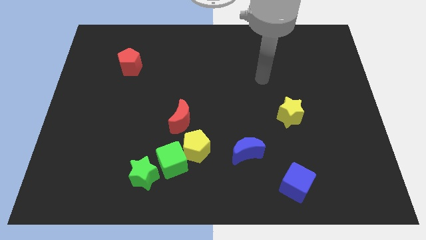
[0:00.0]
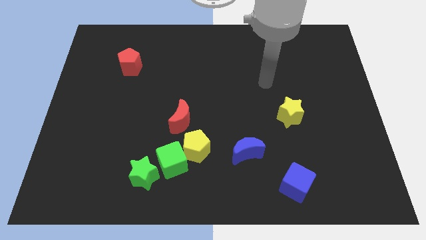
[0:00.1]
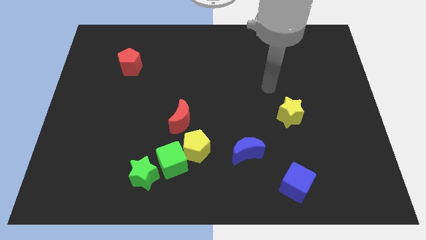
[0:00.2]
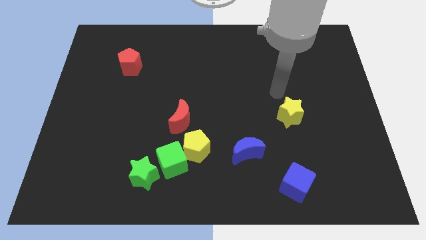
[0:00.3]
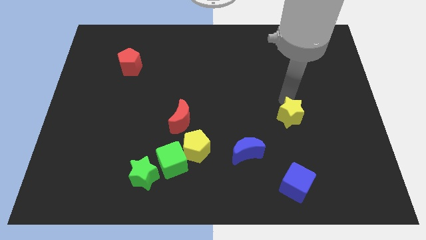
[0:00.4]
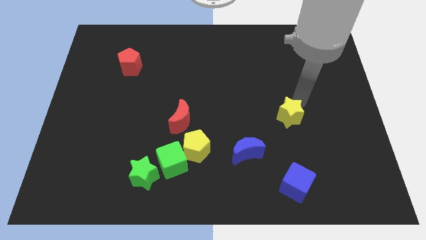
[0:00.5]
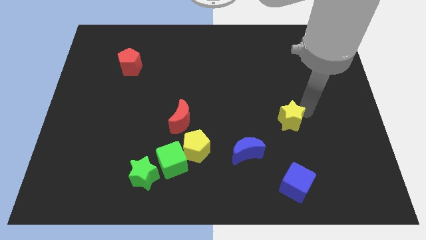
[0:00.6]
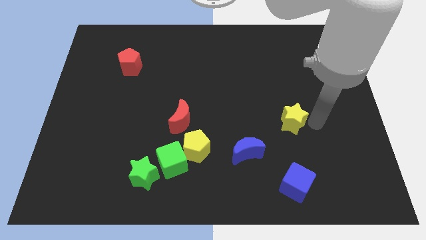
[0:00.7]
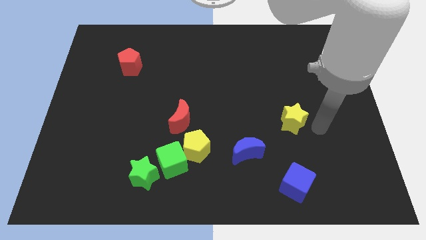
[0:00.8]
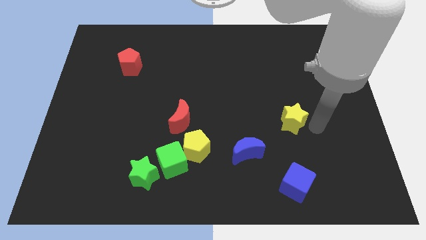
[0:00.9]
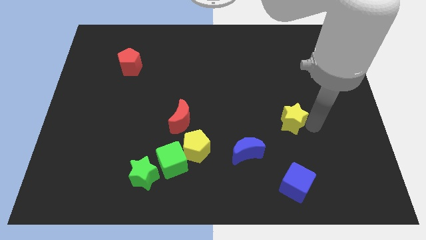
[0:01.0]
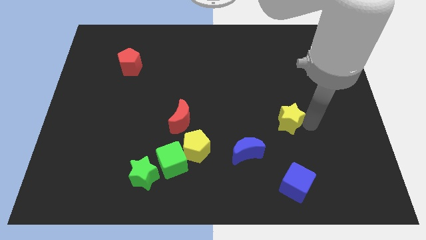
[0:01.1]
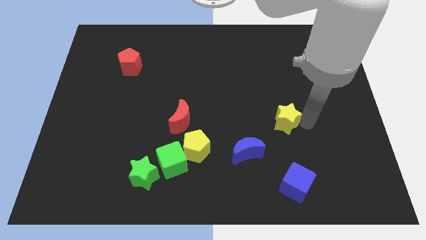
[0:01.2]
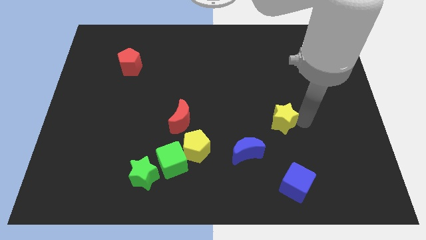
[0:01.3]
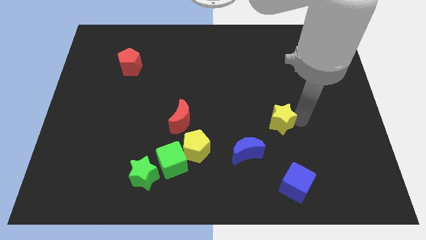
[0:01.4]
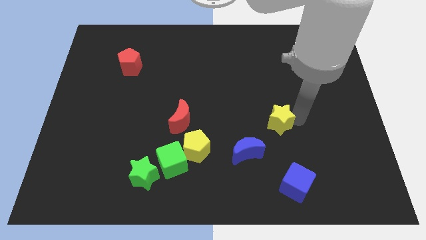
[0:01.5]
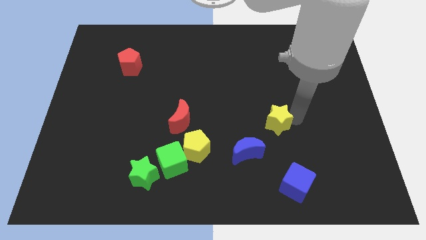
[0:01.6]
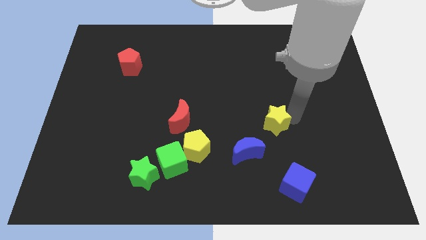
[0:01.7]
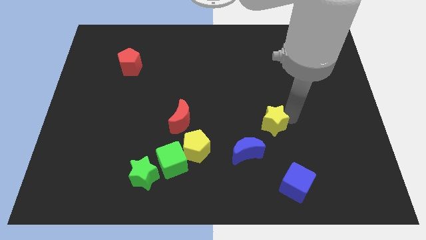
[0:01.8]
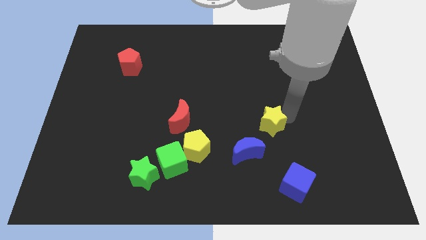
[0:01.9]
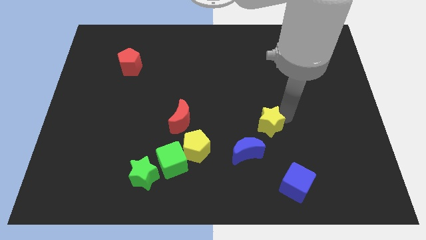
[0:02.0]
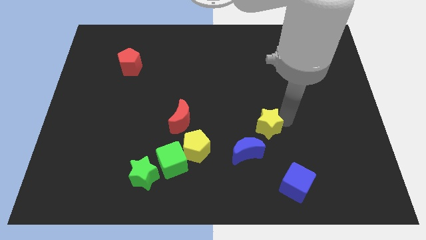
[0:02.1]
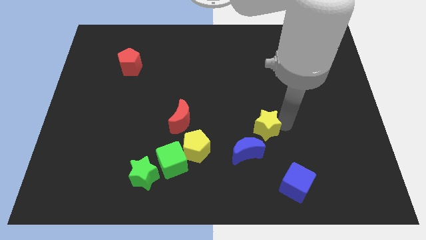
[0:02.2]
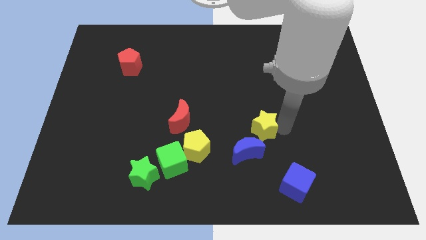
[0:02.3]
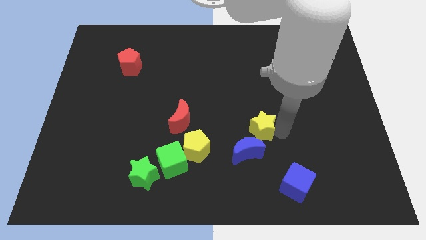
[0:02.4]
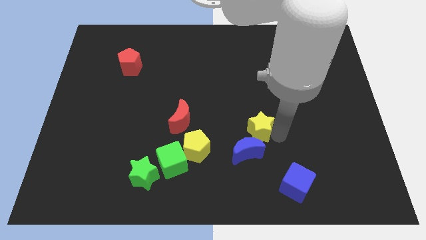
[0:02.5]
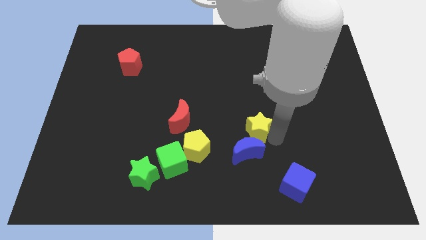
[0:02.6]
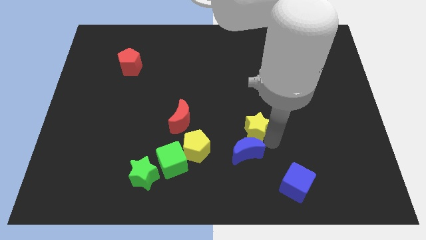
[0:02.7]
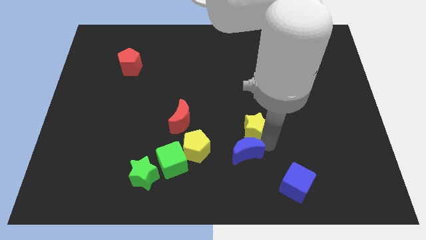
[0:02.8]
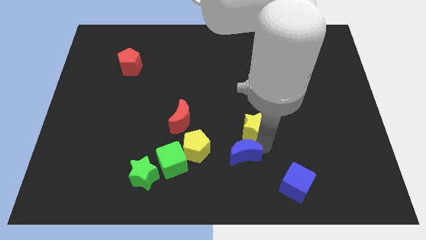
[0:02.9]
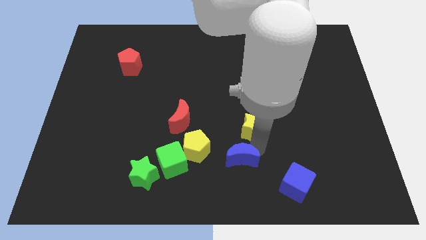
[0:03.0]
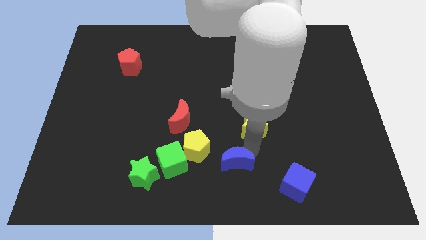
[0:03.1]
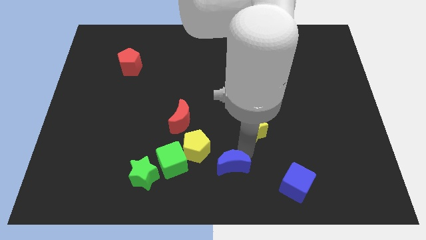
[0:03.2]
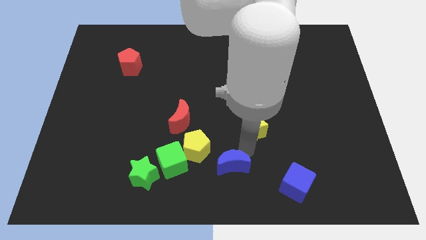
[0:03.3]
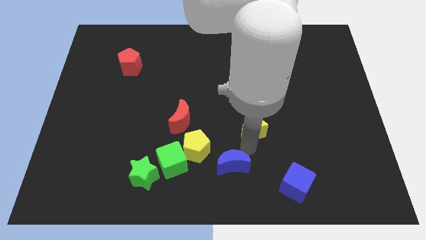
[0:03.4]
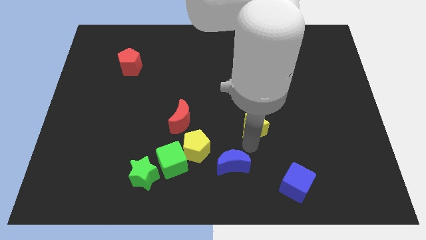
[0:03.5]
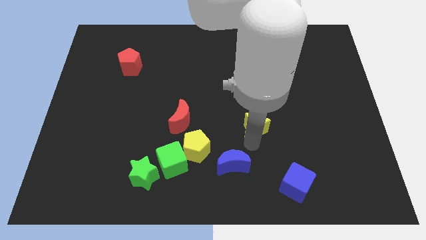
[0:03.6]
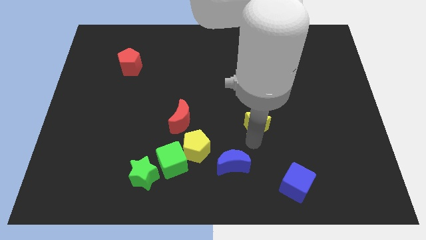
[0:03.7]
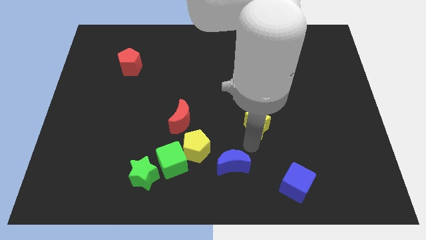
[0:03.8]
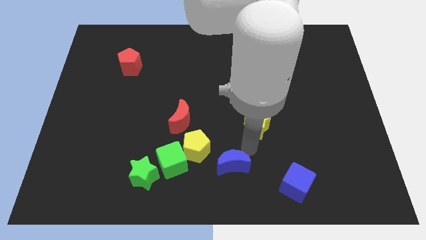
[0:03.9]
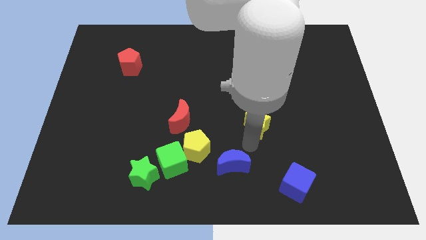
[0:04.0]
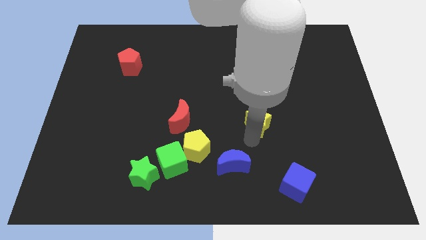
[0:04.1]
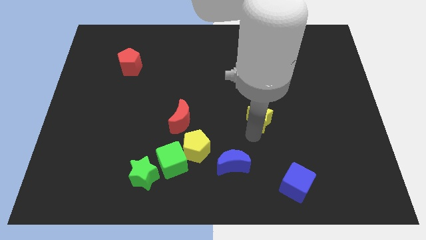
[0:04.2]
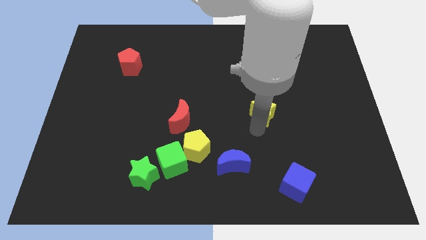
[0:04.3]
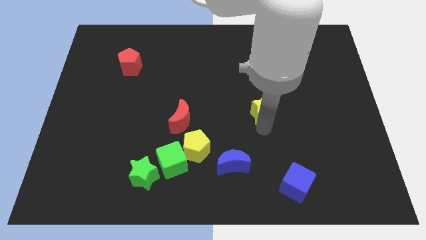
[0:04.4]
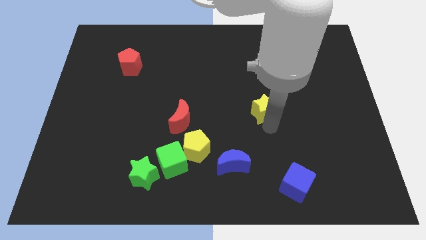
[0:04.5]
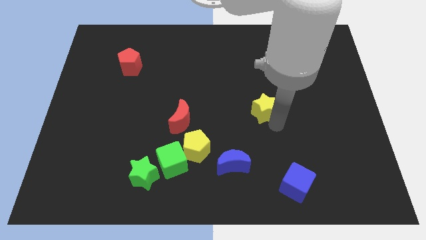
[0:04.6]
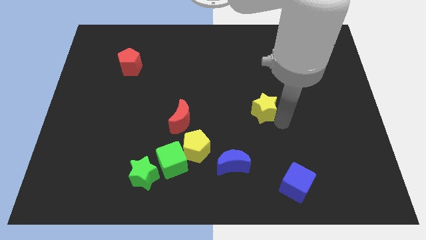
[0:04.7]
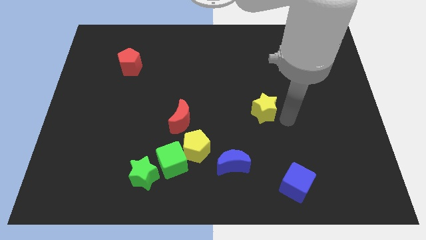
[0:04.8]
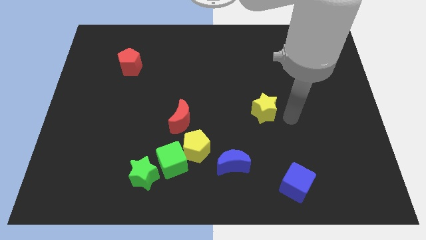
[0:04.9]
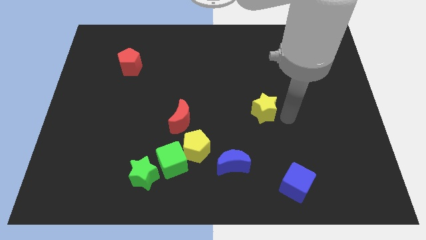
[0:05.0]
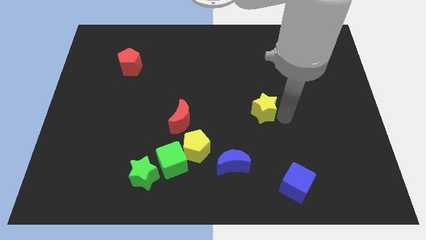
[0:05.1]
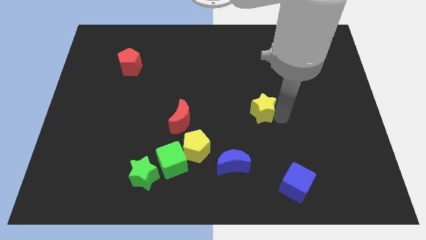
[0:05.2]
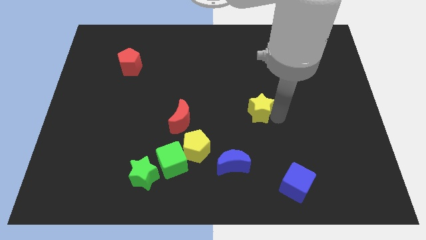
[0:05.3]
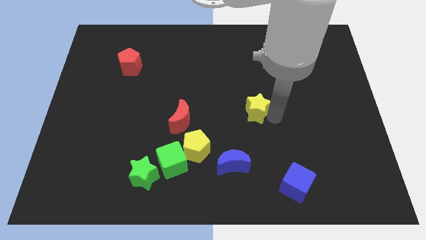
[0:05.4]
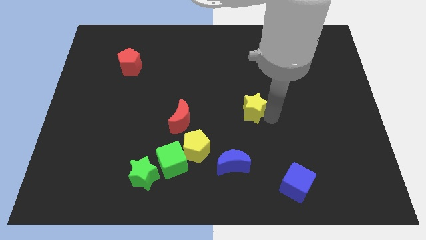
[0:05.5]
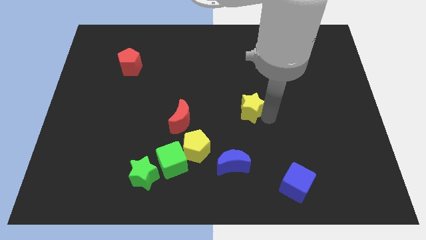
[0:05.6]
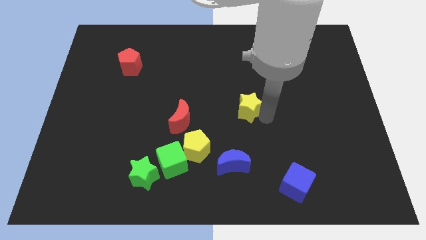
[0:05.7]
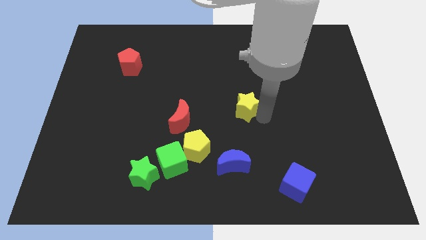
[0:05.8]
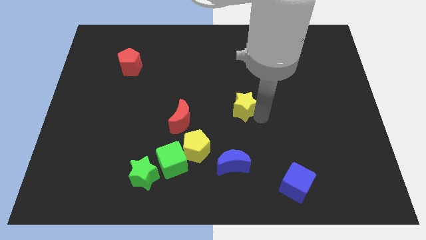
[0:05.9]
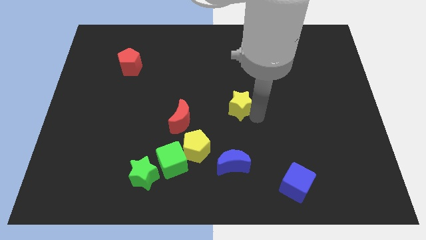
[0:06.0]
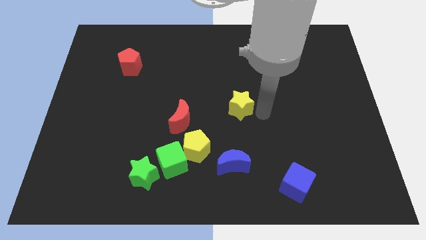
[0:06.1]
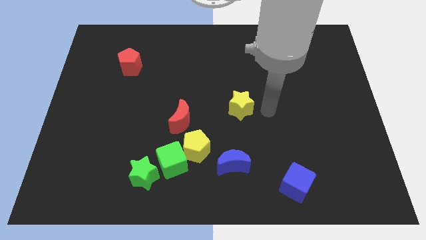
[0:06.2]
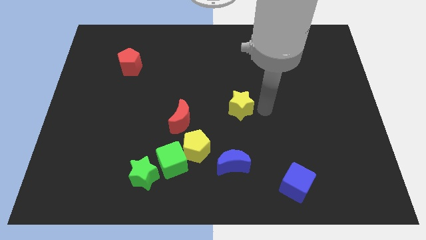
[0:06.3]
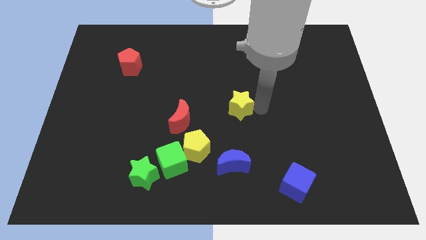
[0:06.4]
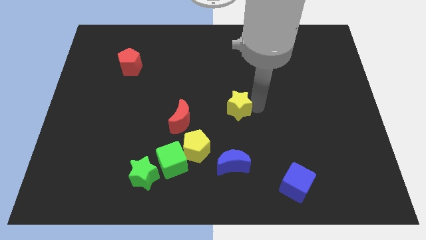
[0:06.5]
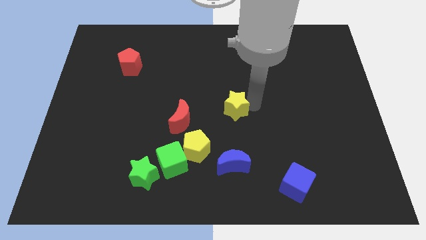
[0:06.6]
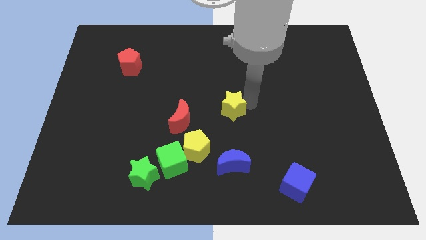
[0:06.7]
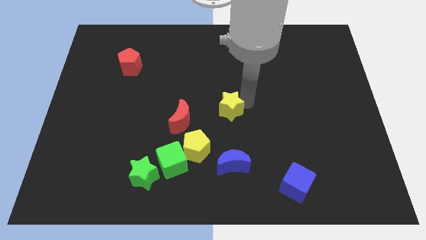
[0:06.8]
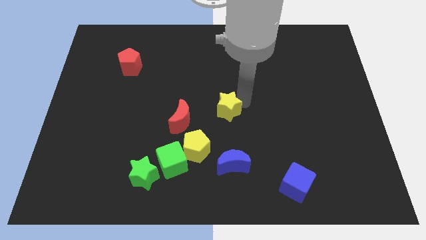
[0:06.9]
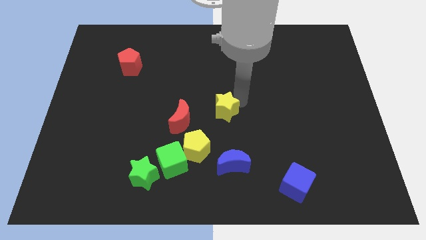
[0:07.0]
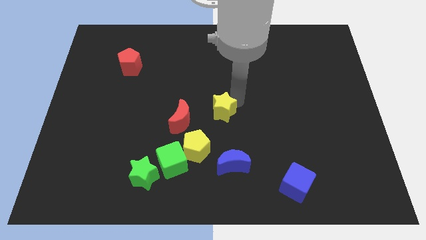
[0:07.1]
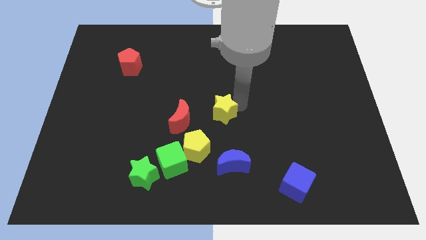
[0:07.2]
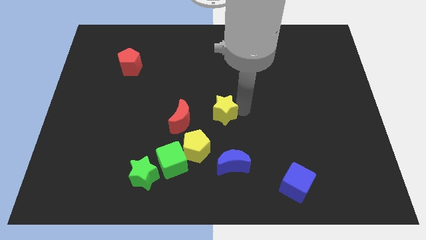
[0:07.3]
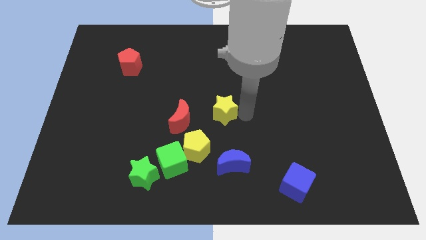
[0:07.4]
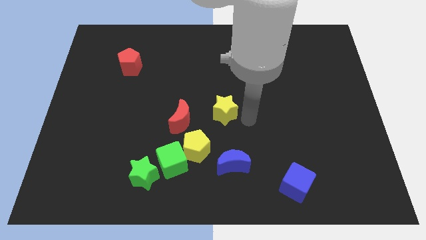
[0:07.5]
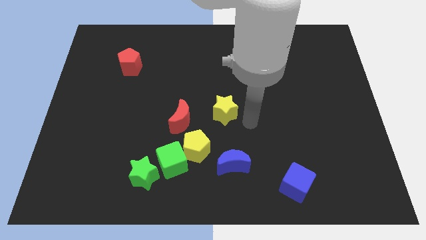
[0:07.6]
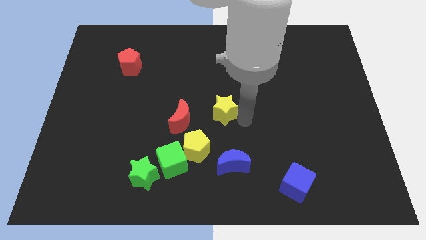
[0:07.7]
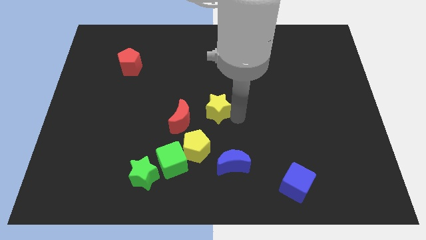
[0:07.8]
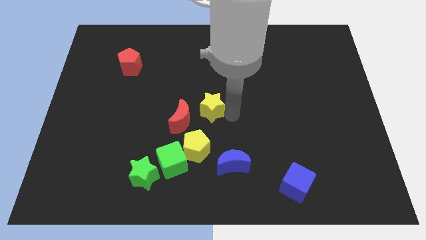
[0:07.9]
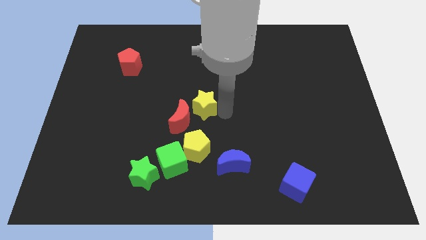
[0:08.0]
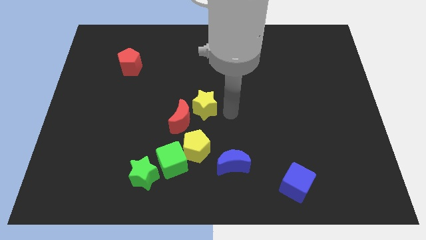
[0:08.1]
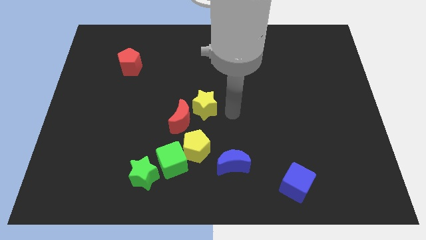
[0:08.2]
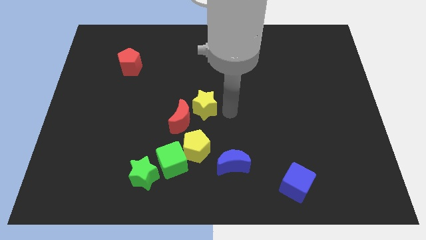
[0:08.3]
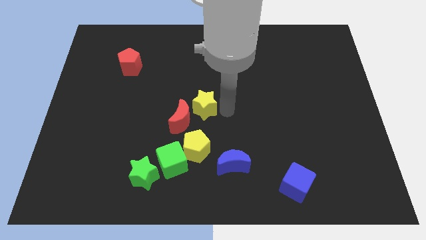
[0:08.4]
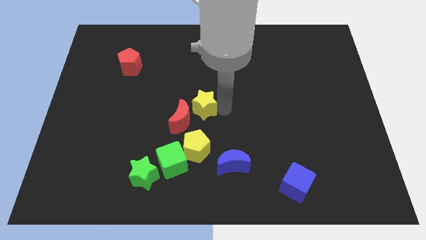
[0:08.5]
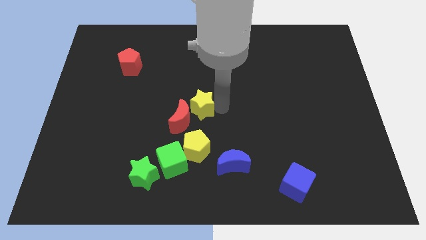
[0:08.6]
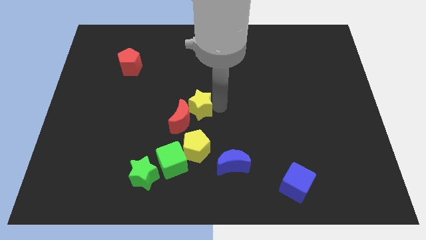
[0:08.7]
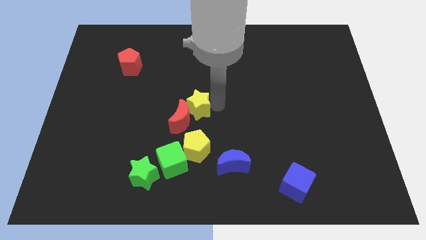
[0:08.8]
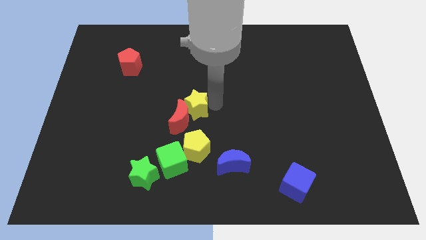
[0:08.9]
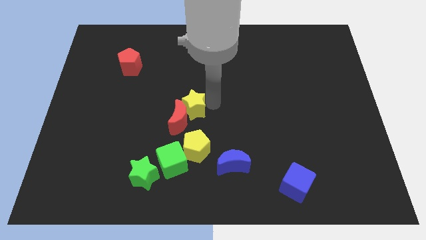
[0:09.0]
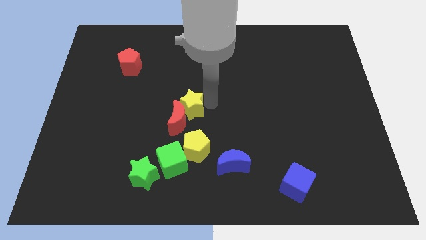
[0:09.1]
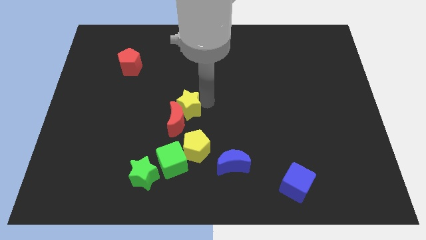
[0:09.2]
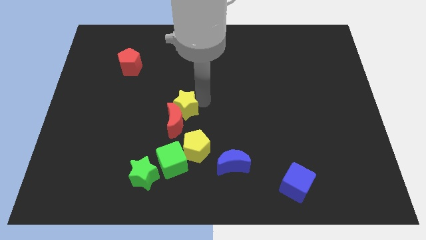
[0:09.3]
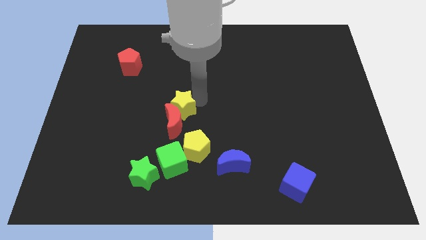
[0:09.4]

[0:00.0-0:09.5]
push the yellow star to the top left of the red moon
